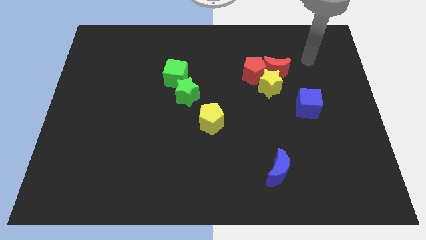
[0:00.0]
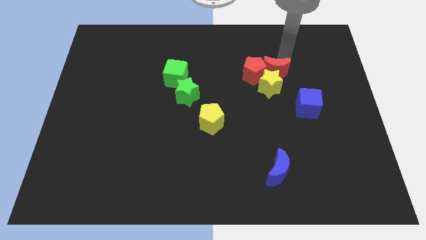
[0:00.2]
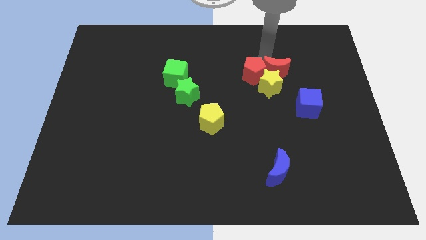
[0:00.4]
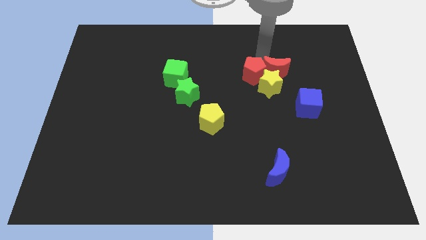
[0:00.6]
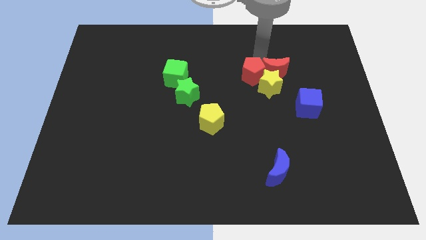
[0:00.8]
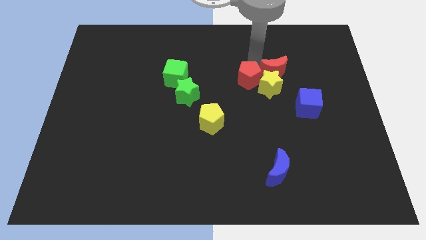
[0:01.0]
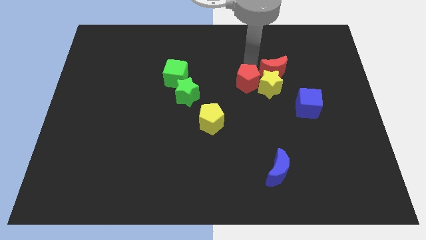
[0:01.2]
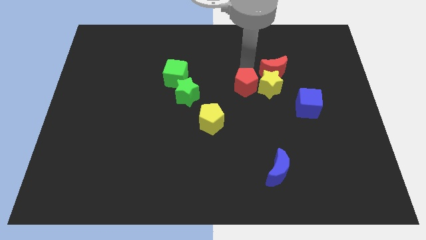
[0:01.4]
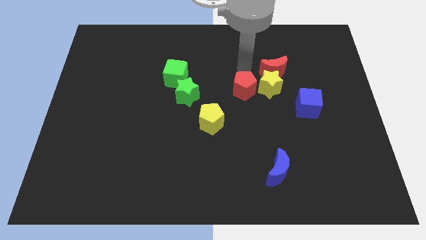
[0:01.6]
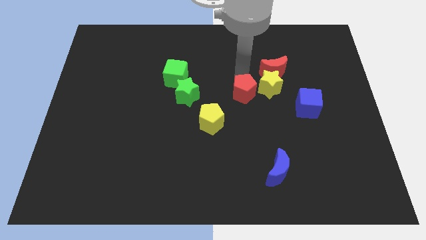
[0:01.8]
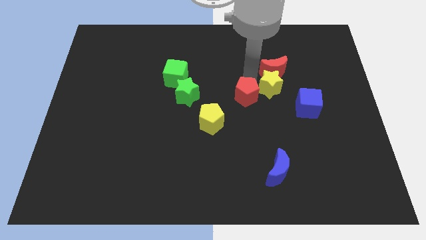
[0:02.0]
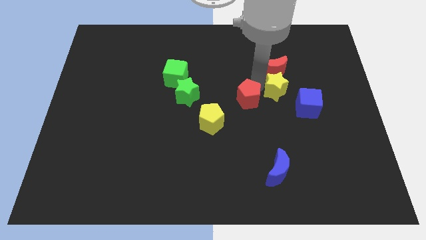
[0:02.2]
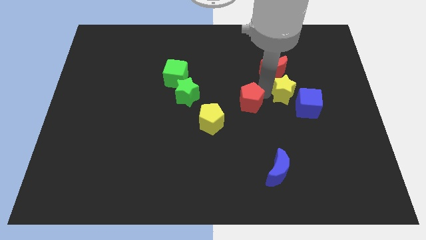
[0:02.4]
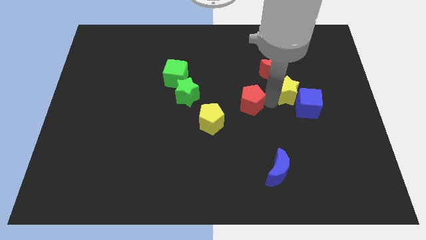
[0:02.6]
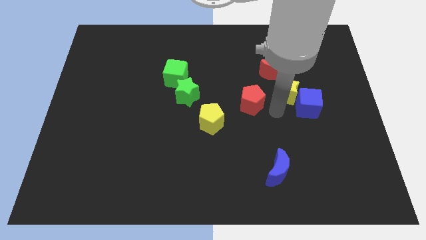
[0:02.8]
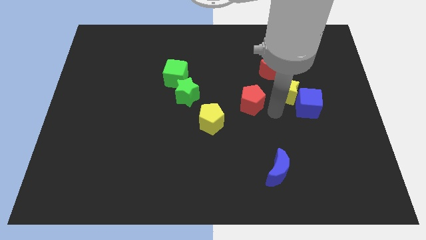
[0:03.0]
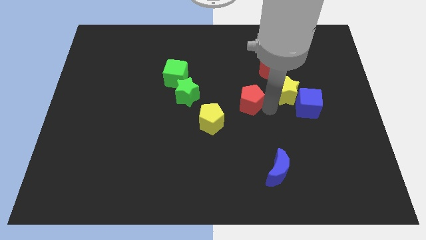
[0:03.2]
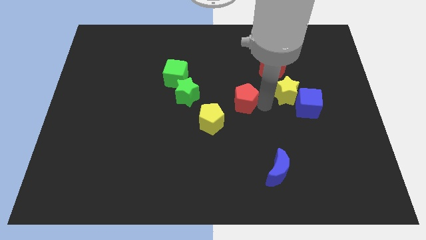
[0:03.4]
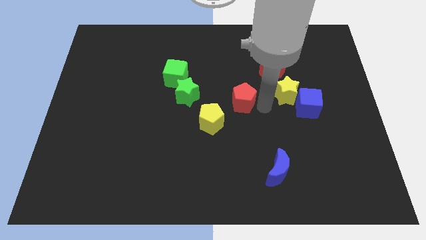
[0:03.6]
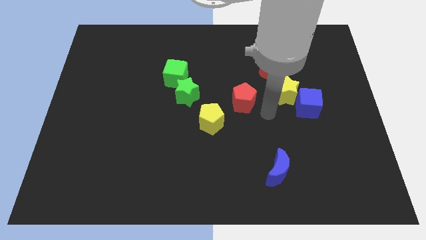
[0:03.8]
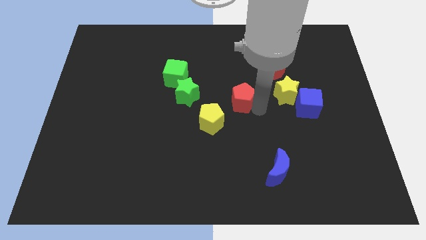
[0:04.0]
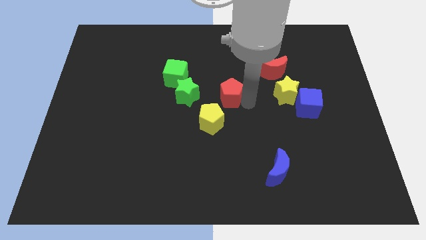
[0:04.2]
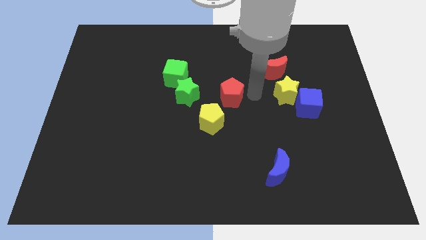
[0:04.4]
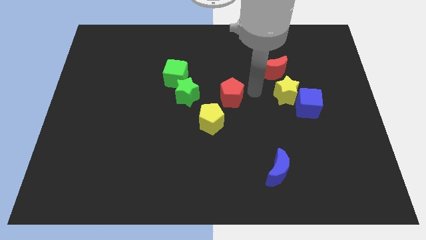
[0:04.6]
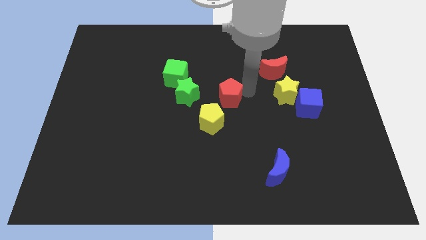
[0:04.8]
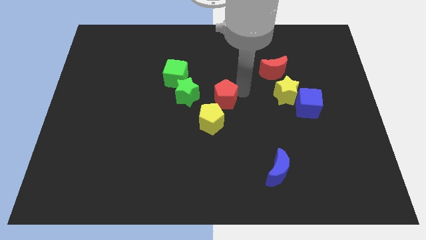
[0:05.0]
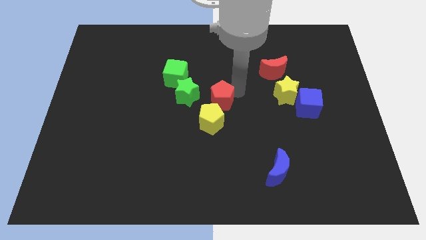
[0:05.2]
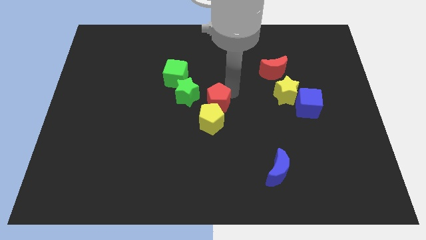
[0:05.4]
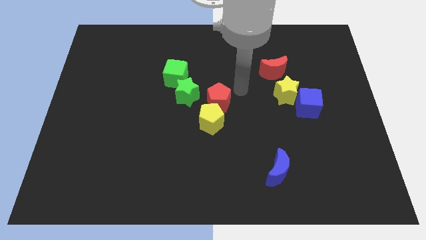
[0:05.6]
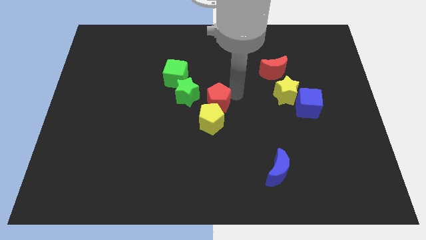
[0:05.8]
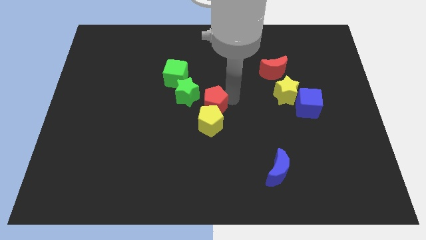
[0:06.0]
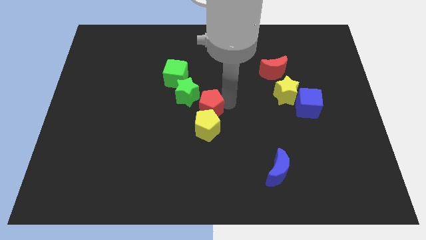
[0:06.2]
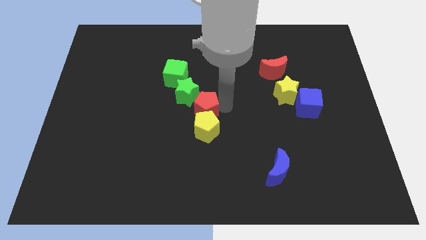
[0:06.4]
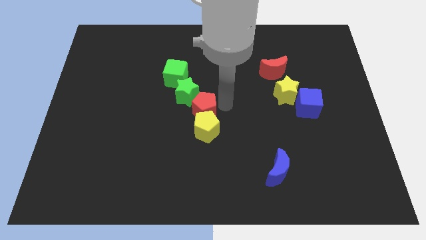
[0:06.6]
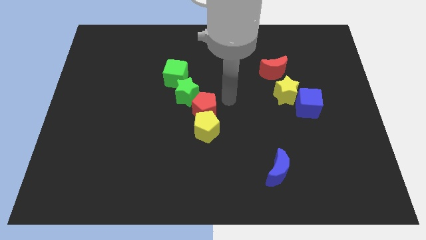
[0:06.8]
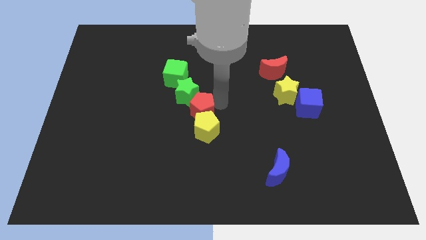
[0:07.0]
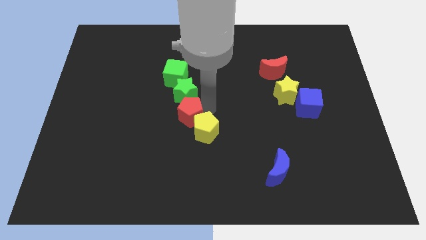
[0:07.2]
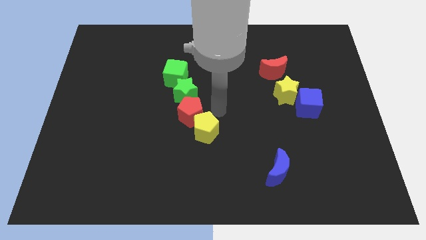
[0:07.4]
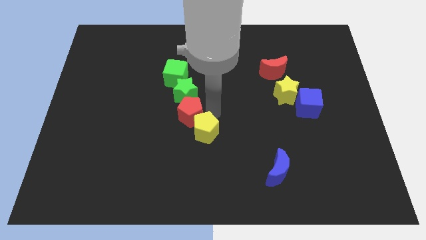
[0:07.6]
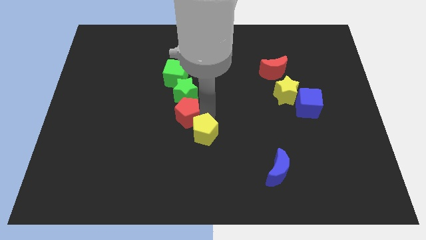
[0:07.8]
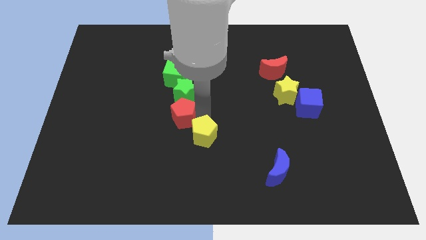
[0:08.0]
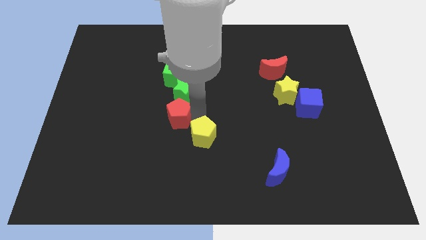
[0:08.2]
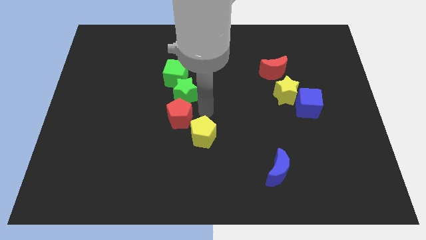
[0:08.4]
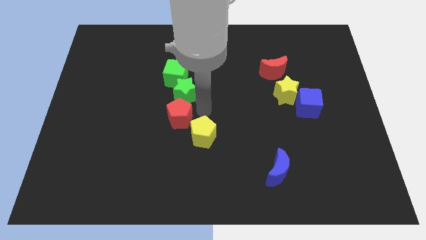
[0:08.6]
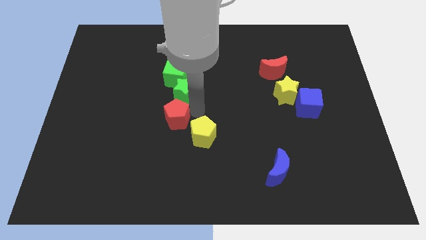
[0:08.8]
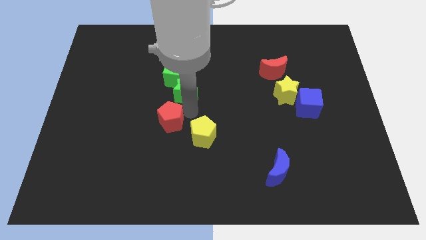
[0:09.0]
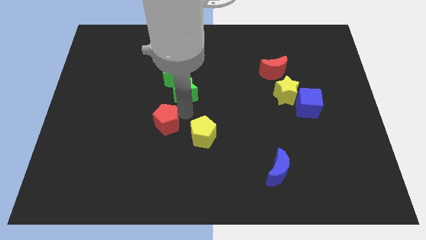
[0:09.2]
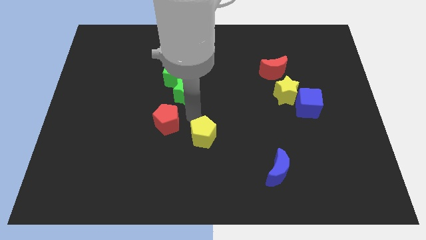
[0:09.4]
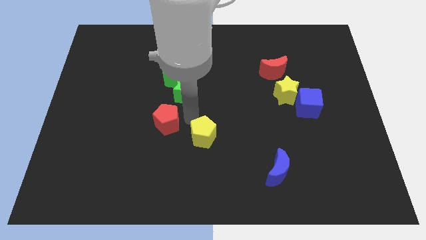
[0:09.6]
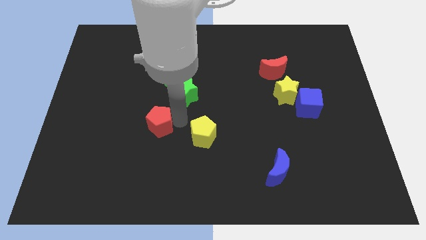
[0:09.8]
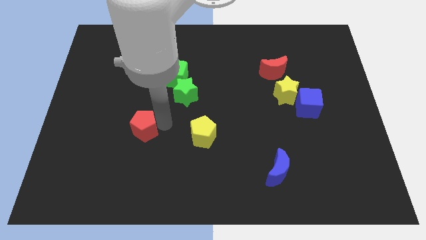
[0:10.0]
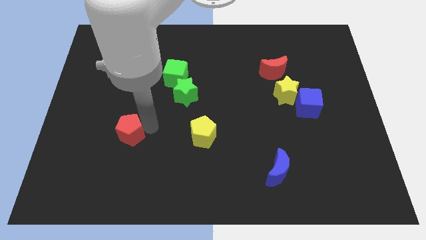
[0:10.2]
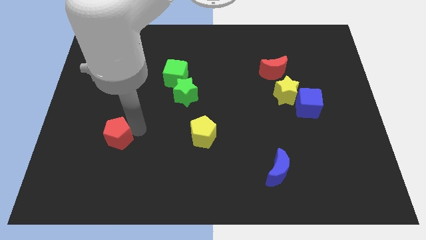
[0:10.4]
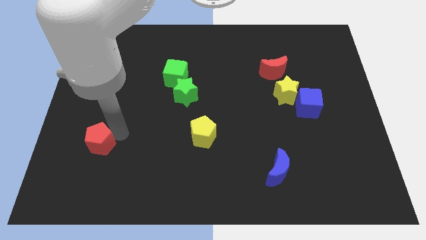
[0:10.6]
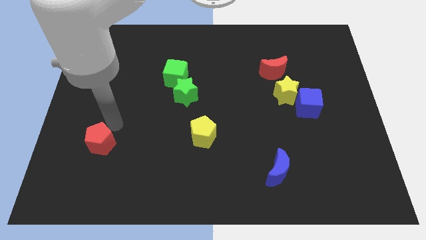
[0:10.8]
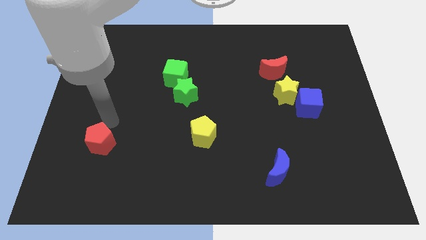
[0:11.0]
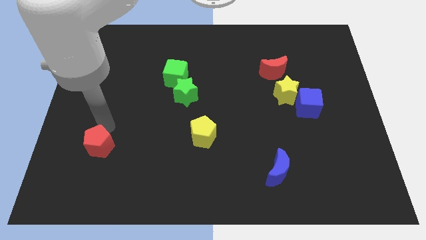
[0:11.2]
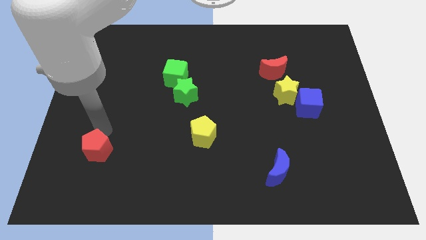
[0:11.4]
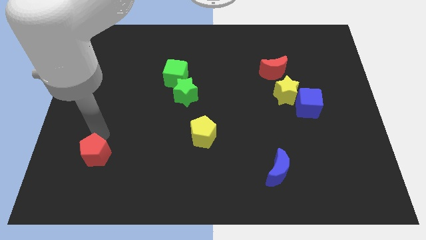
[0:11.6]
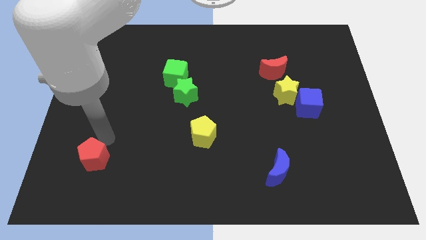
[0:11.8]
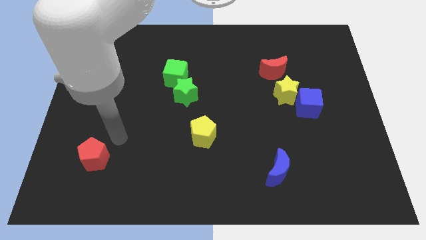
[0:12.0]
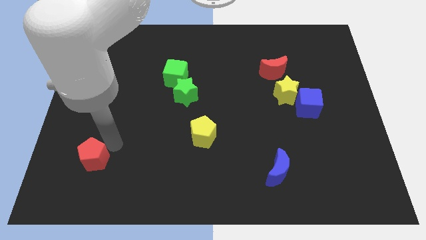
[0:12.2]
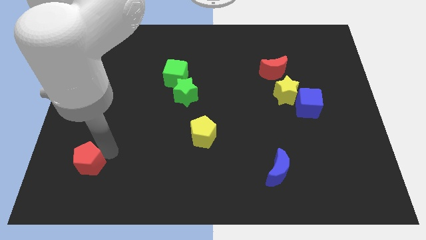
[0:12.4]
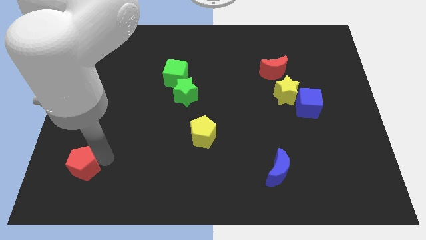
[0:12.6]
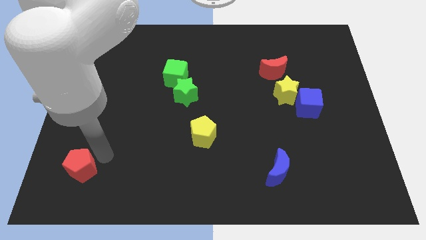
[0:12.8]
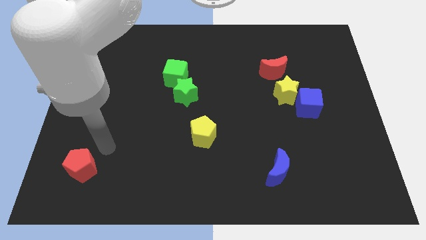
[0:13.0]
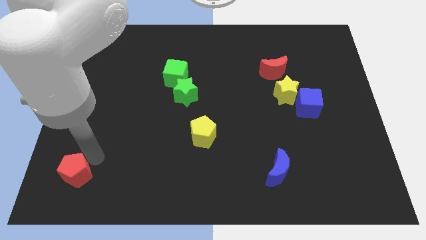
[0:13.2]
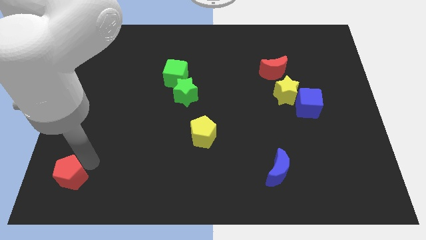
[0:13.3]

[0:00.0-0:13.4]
put the red pentagon to the bottom left

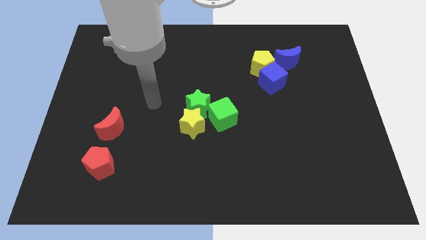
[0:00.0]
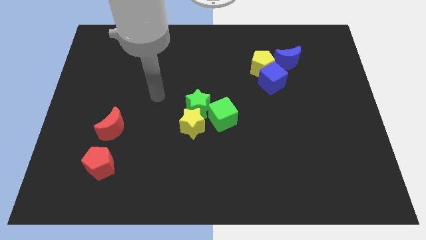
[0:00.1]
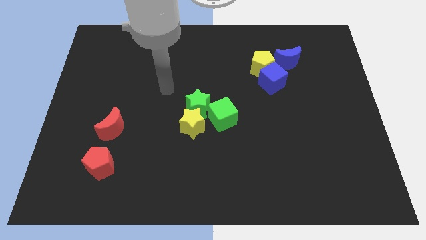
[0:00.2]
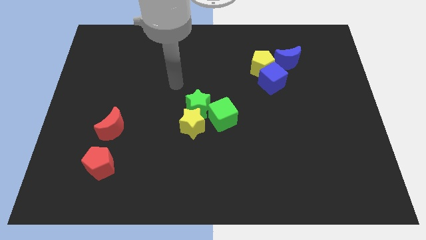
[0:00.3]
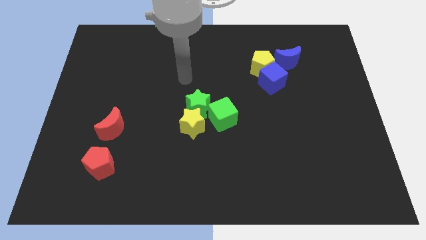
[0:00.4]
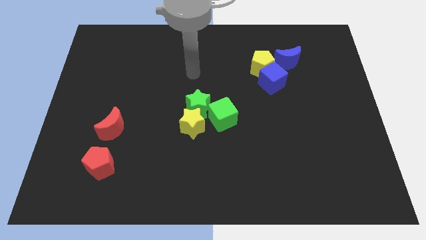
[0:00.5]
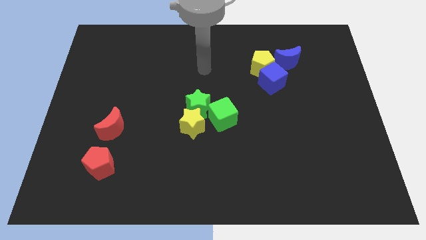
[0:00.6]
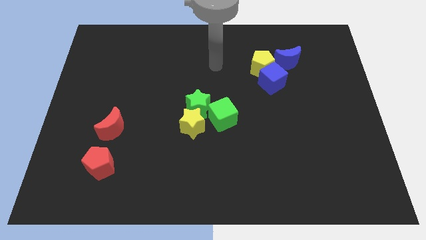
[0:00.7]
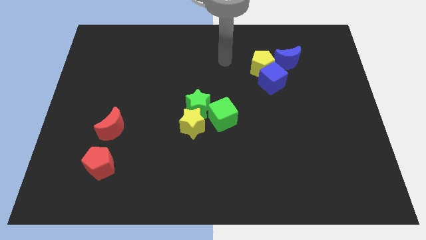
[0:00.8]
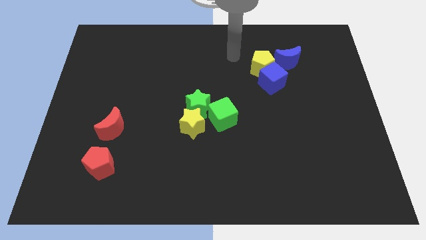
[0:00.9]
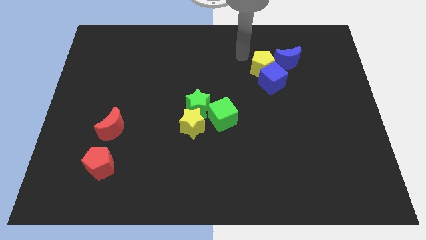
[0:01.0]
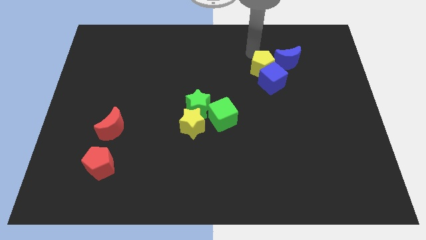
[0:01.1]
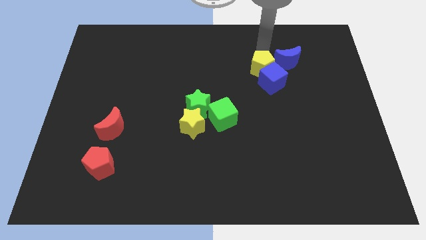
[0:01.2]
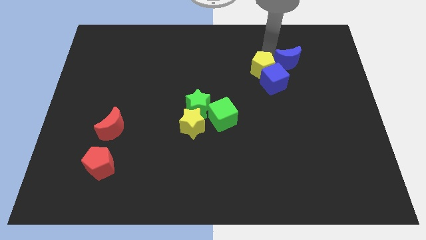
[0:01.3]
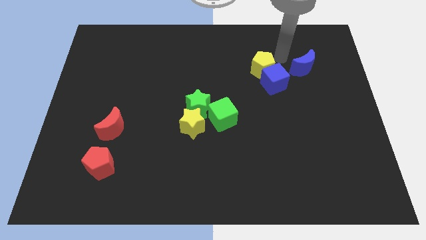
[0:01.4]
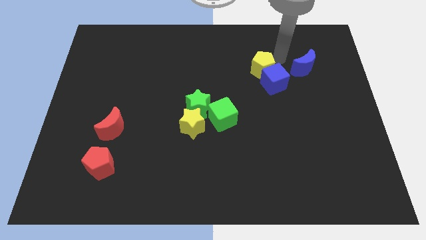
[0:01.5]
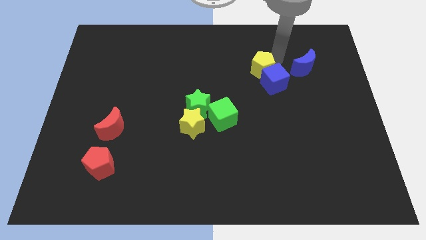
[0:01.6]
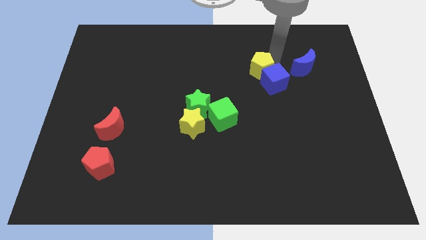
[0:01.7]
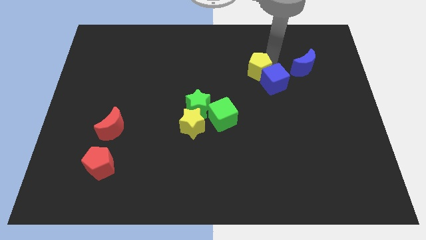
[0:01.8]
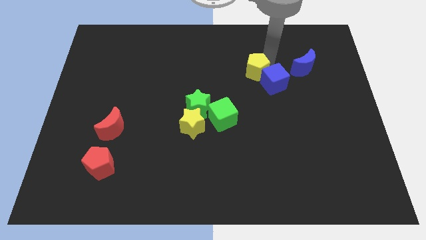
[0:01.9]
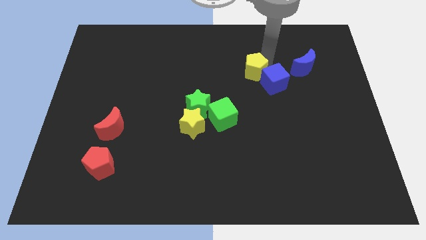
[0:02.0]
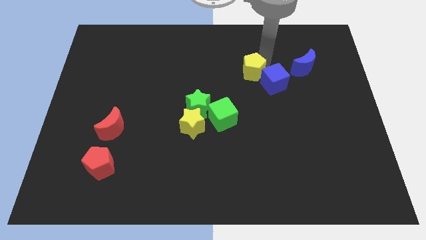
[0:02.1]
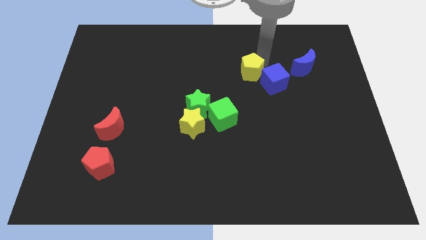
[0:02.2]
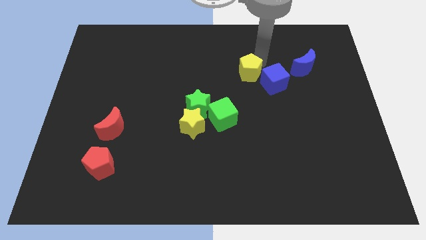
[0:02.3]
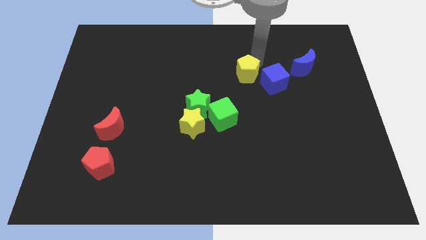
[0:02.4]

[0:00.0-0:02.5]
push the yellow pentagon to the middle of the board
